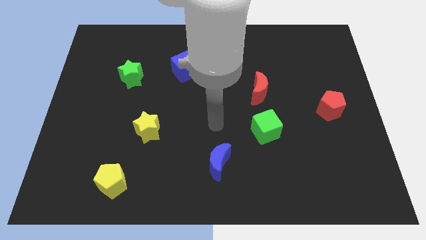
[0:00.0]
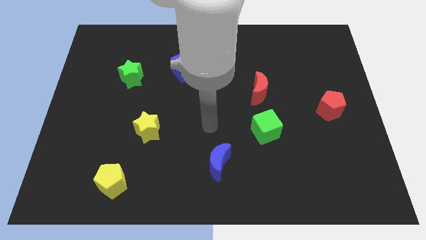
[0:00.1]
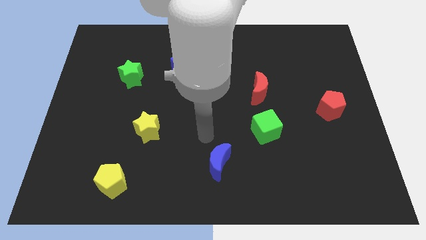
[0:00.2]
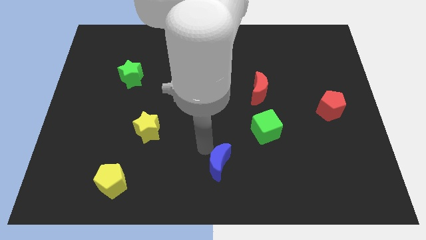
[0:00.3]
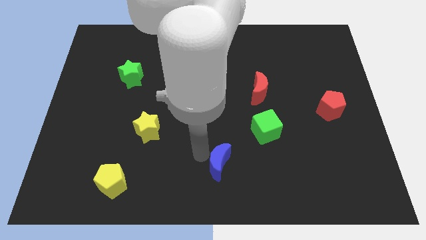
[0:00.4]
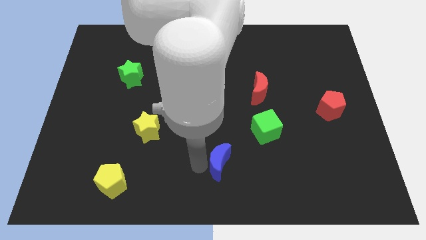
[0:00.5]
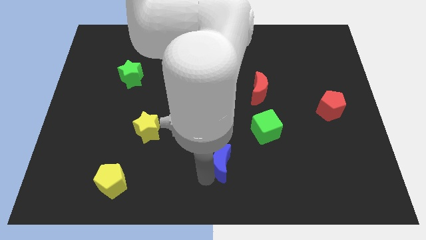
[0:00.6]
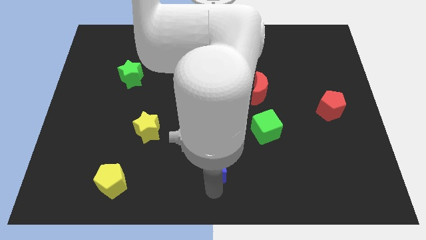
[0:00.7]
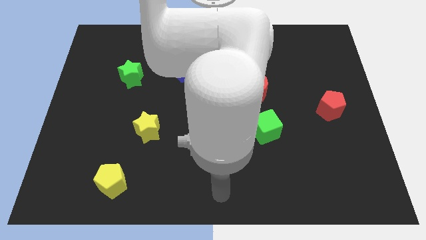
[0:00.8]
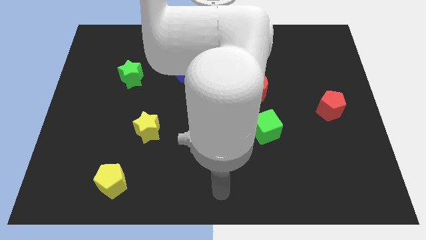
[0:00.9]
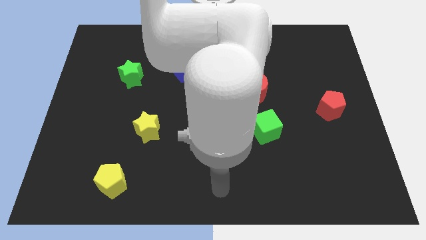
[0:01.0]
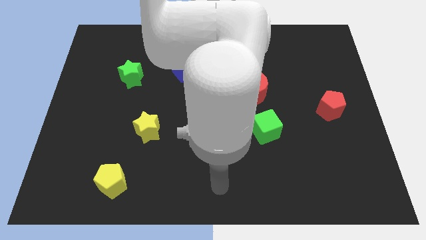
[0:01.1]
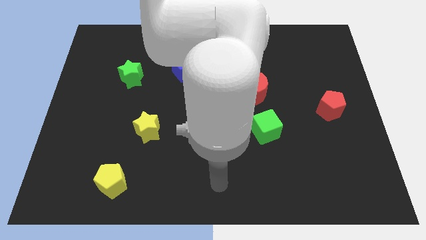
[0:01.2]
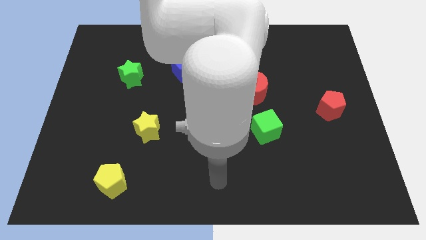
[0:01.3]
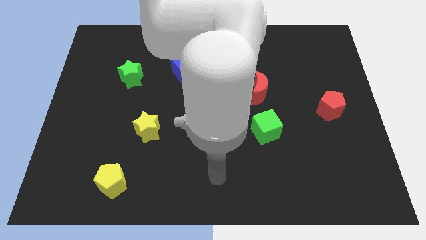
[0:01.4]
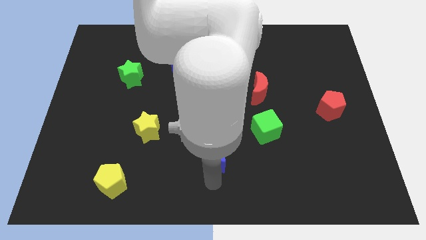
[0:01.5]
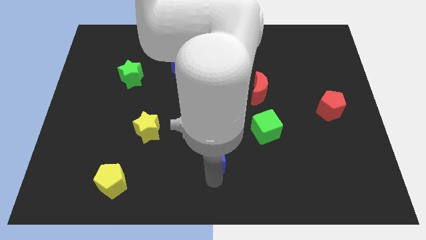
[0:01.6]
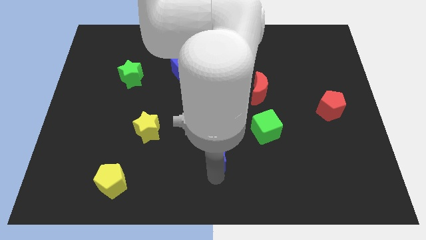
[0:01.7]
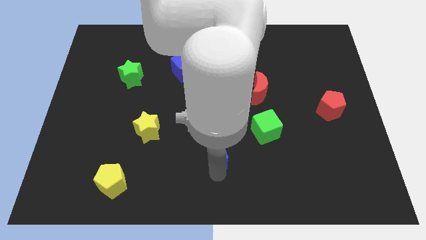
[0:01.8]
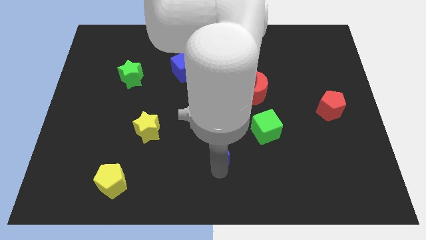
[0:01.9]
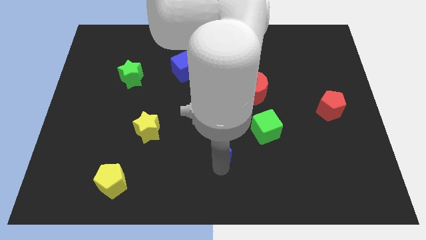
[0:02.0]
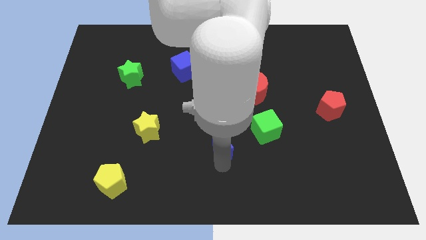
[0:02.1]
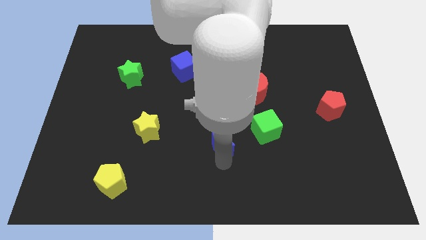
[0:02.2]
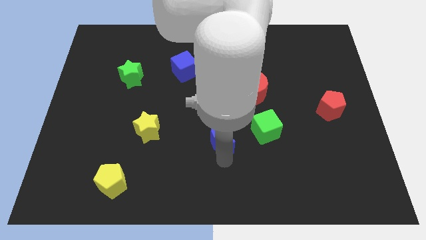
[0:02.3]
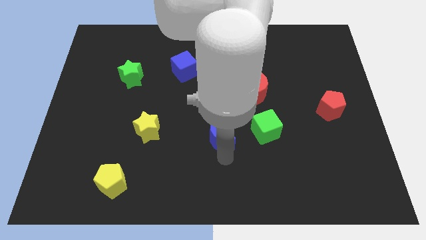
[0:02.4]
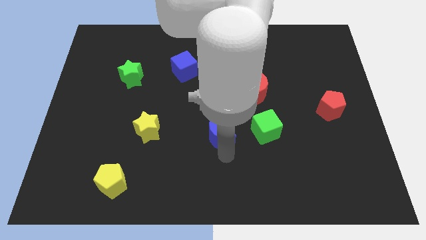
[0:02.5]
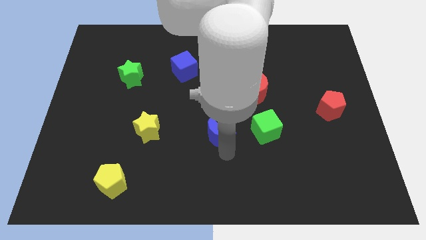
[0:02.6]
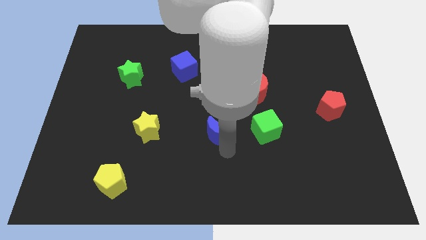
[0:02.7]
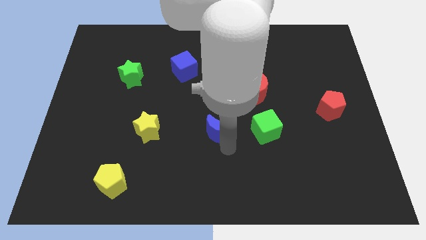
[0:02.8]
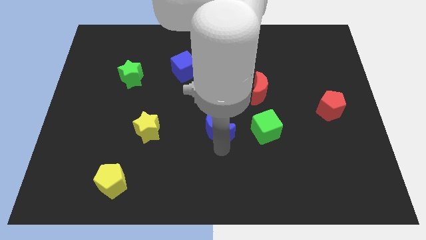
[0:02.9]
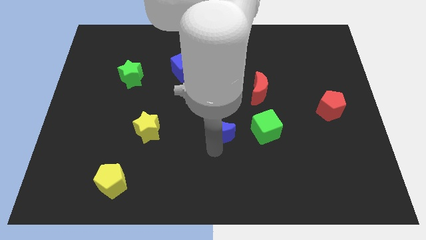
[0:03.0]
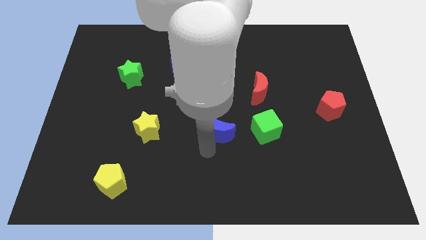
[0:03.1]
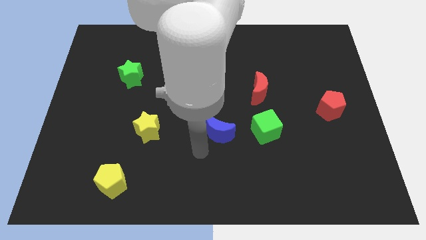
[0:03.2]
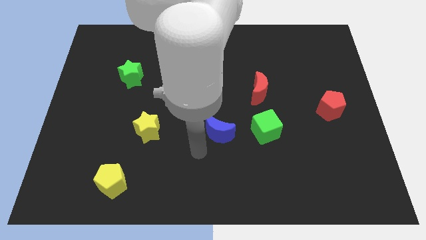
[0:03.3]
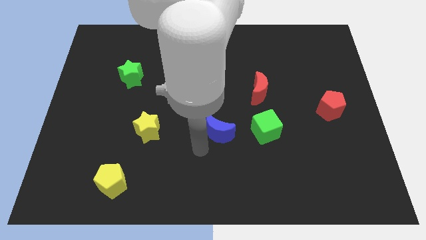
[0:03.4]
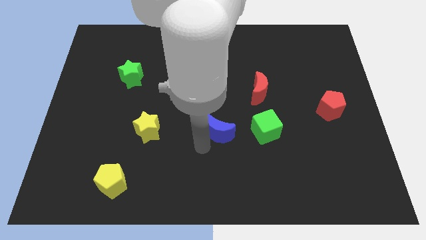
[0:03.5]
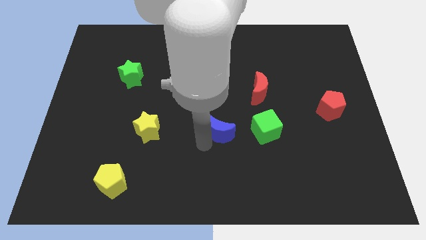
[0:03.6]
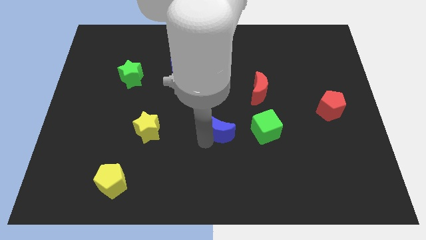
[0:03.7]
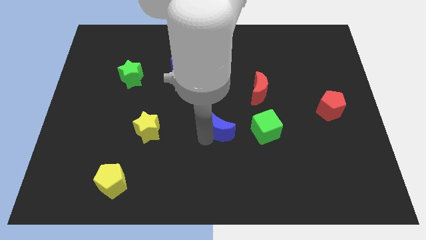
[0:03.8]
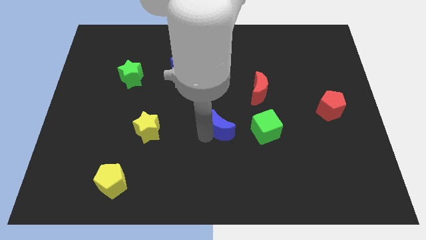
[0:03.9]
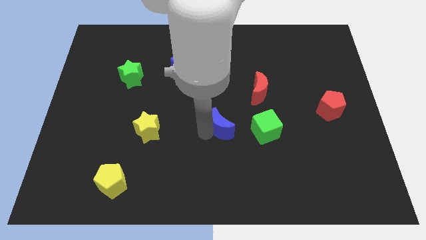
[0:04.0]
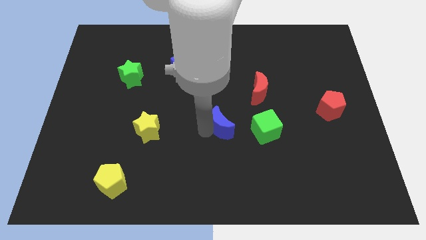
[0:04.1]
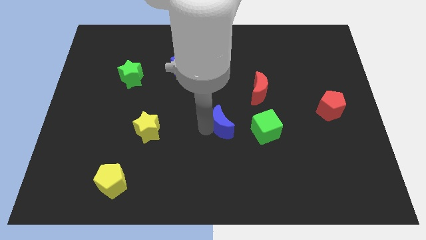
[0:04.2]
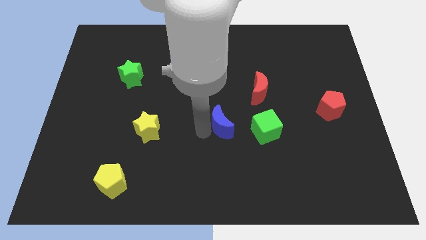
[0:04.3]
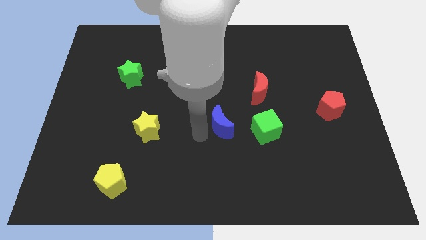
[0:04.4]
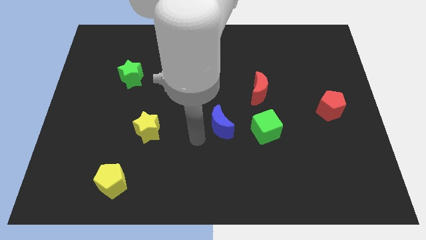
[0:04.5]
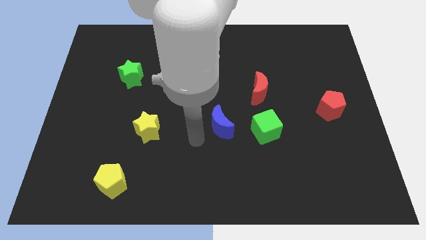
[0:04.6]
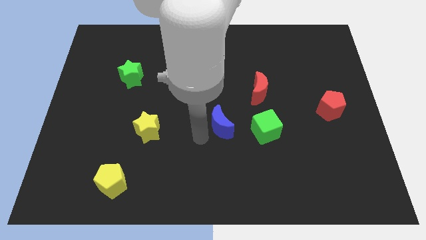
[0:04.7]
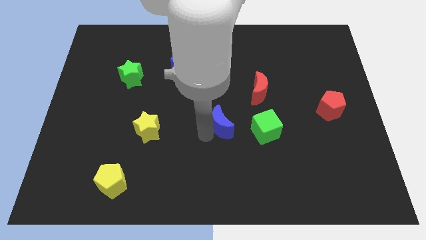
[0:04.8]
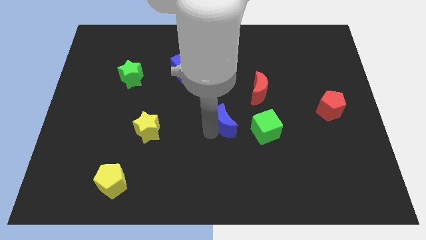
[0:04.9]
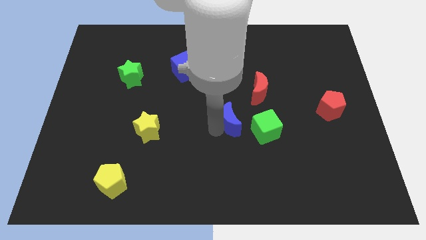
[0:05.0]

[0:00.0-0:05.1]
slide the blue moon slightly diagonally up and right

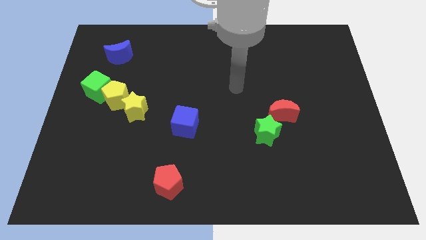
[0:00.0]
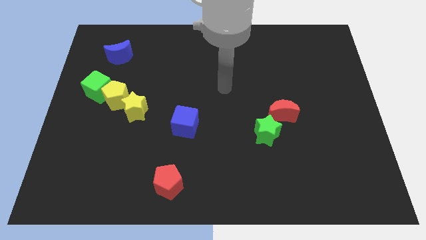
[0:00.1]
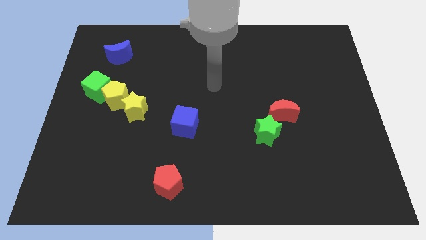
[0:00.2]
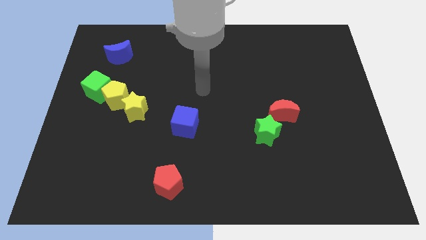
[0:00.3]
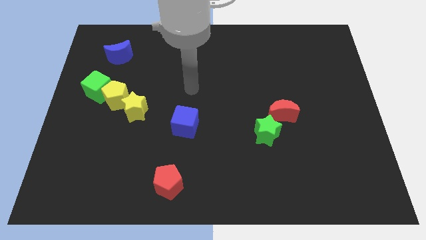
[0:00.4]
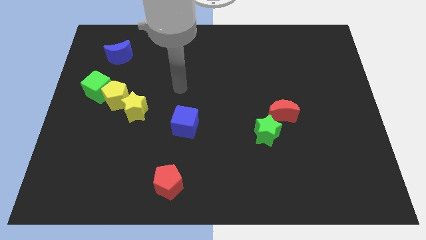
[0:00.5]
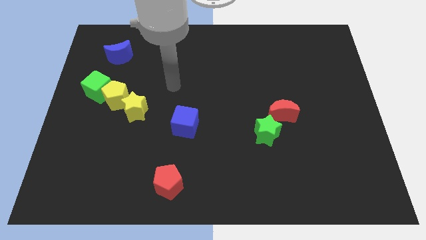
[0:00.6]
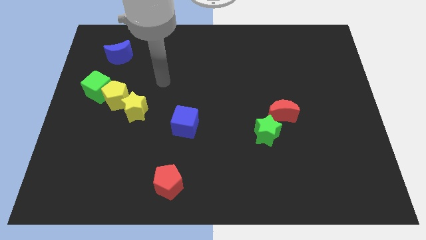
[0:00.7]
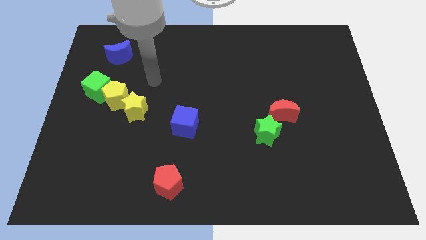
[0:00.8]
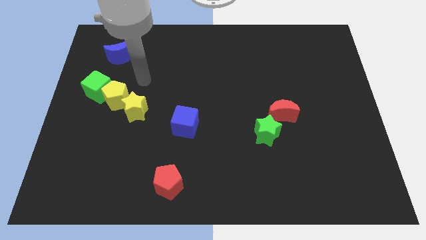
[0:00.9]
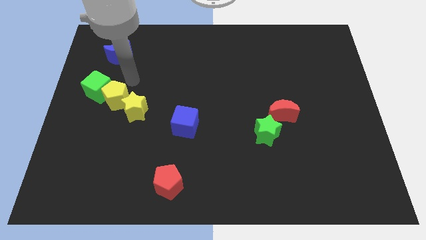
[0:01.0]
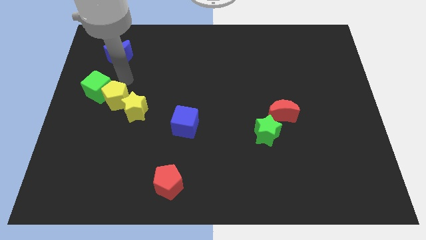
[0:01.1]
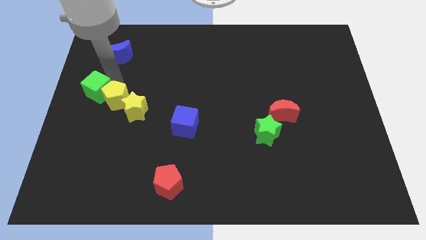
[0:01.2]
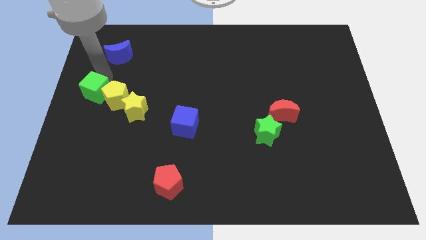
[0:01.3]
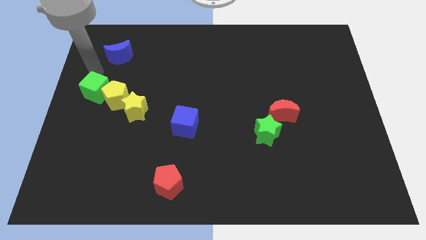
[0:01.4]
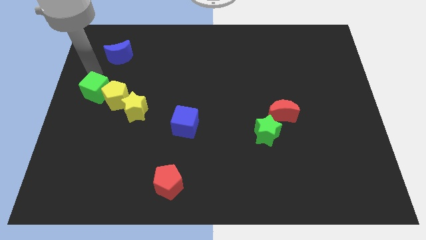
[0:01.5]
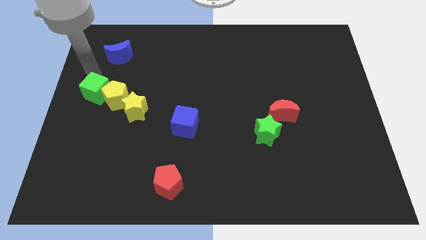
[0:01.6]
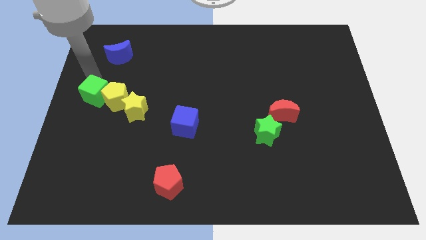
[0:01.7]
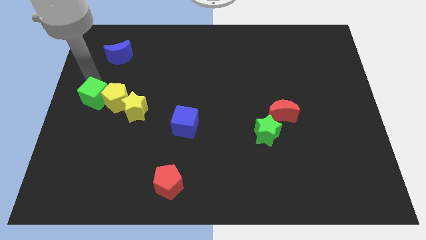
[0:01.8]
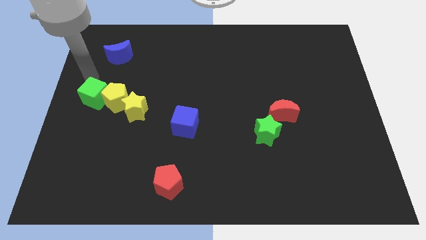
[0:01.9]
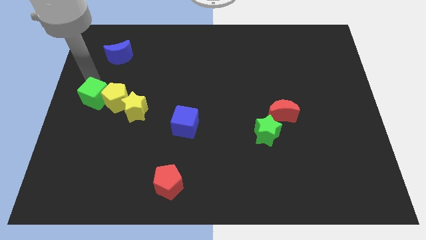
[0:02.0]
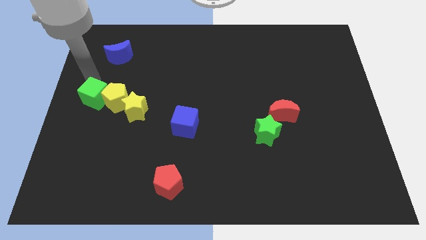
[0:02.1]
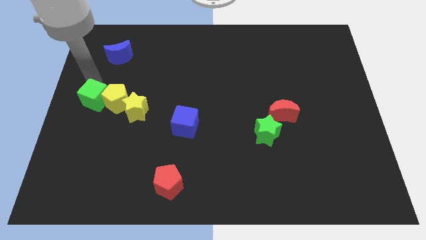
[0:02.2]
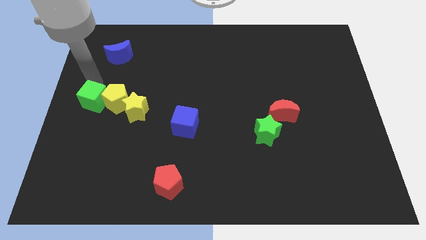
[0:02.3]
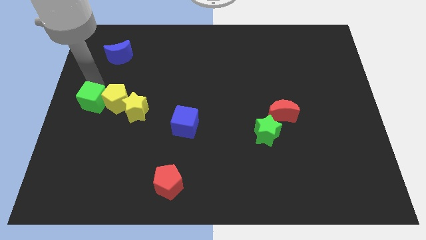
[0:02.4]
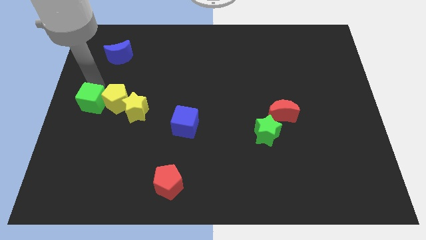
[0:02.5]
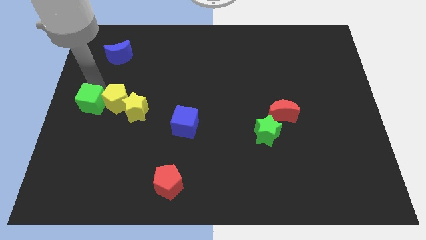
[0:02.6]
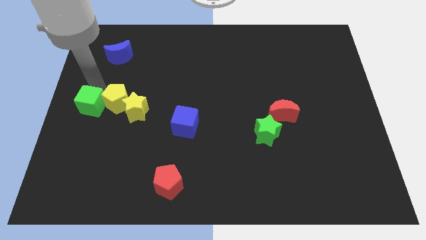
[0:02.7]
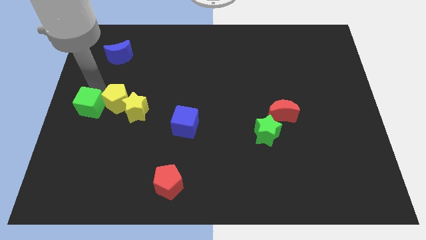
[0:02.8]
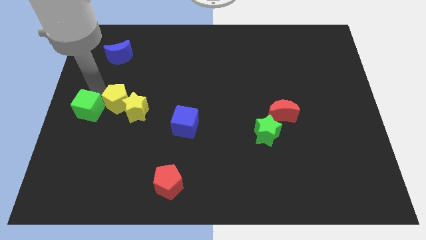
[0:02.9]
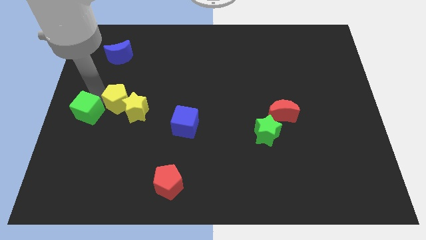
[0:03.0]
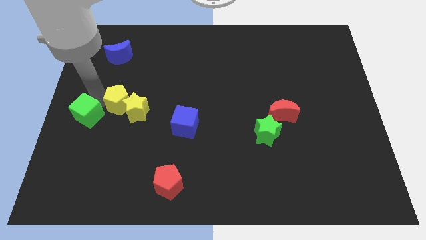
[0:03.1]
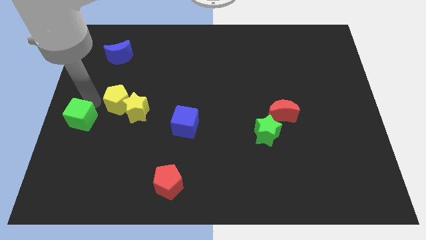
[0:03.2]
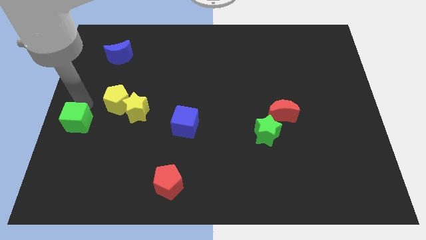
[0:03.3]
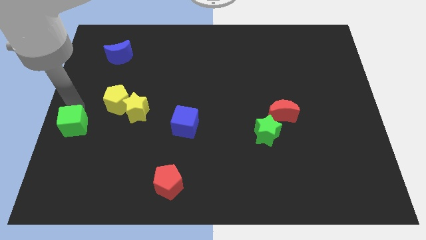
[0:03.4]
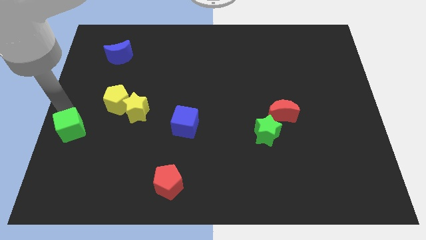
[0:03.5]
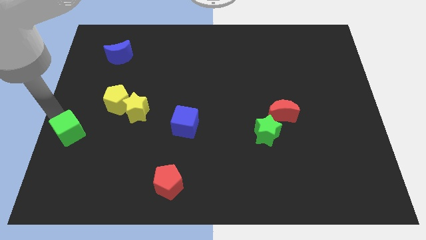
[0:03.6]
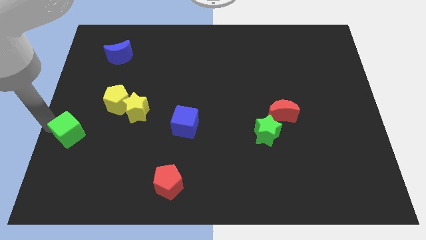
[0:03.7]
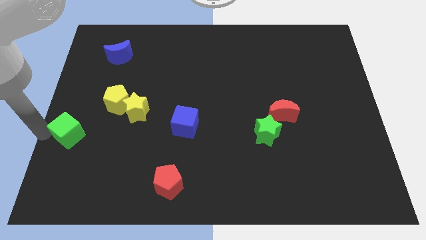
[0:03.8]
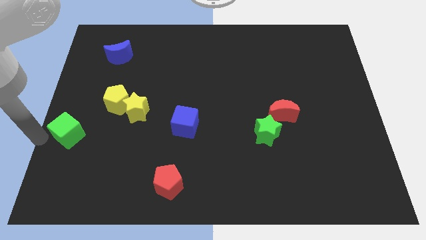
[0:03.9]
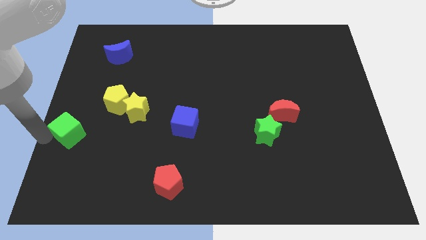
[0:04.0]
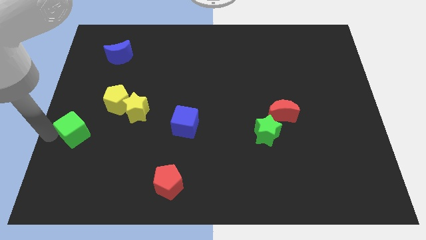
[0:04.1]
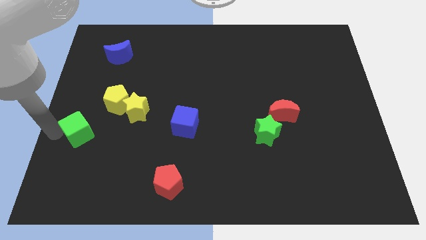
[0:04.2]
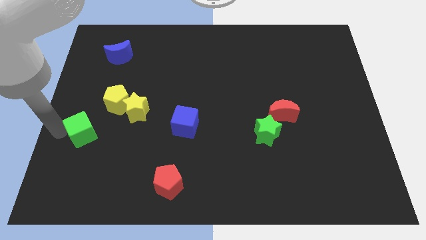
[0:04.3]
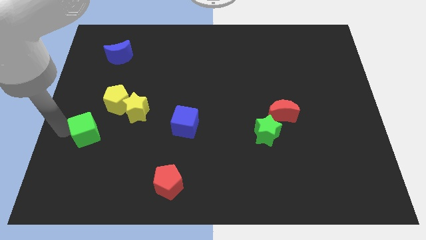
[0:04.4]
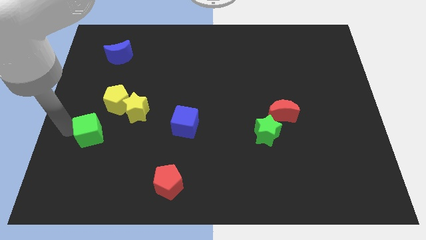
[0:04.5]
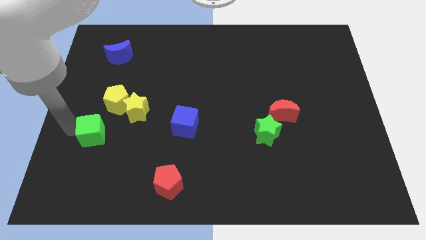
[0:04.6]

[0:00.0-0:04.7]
slightly move the green cube diagonally downwards and right
